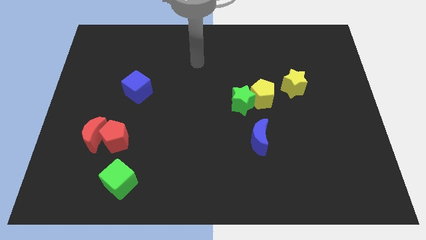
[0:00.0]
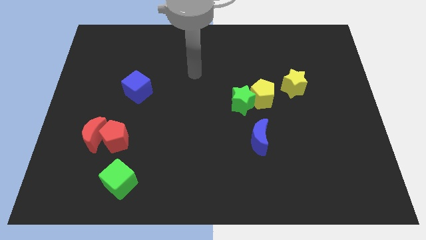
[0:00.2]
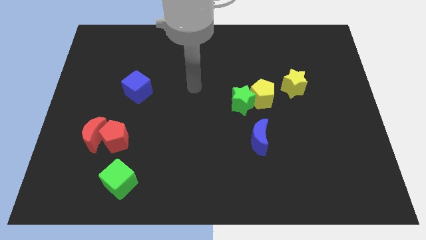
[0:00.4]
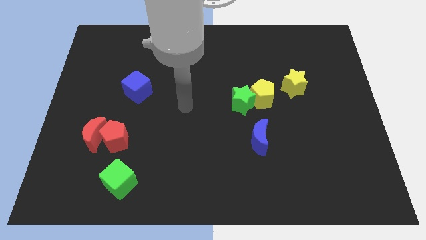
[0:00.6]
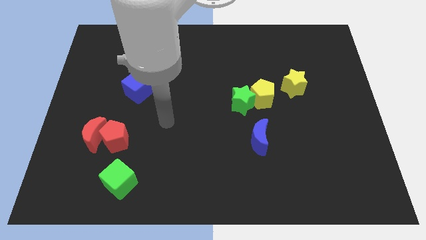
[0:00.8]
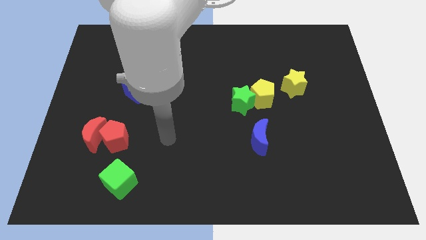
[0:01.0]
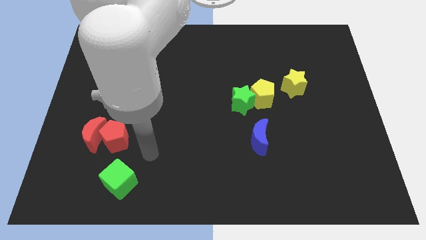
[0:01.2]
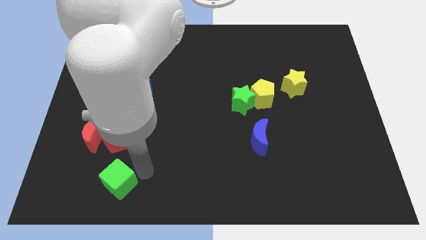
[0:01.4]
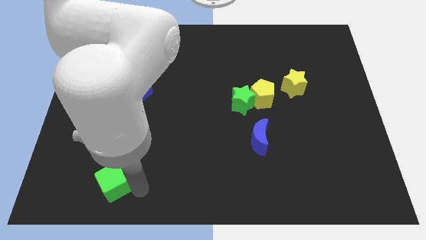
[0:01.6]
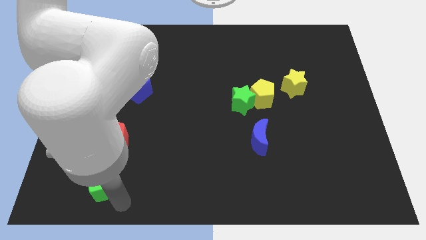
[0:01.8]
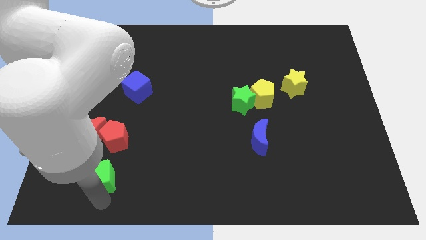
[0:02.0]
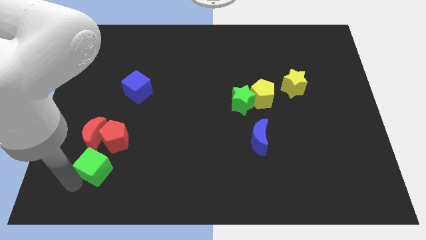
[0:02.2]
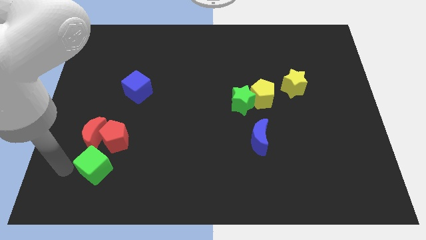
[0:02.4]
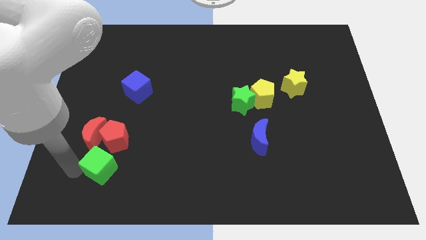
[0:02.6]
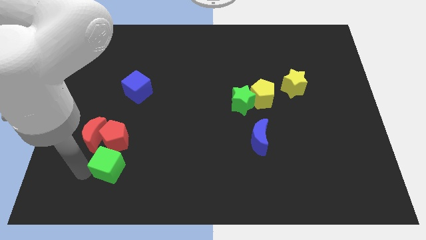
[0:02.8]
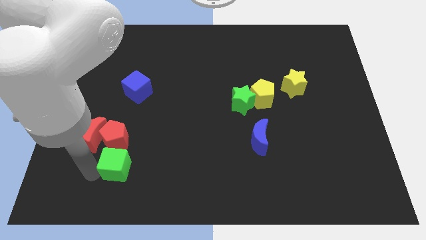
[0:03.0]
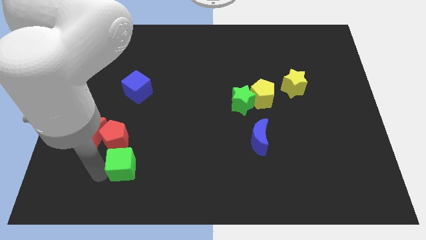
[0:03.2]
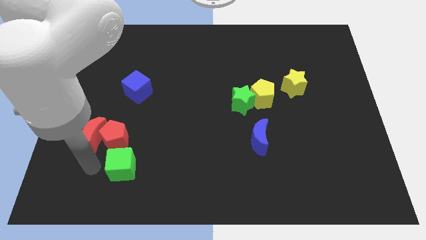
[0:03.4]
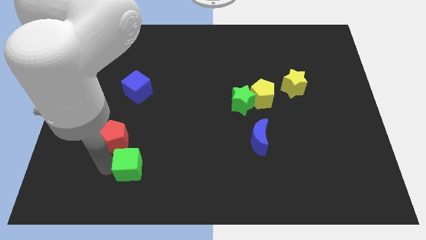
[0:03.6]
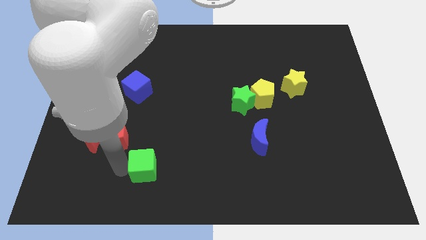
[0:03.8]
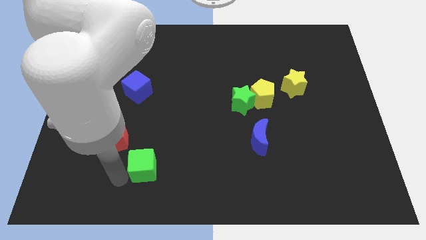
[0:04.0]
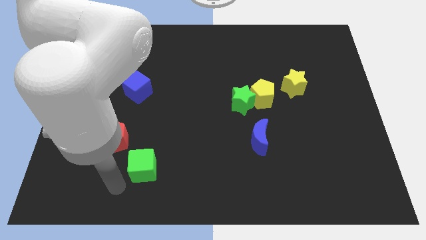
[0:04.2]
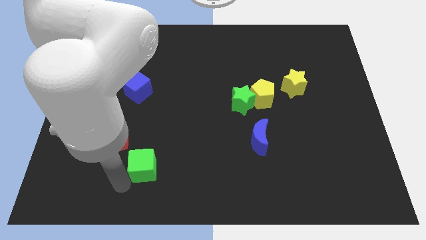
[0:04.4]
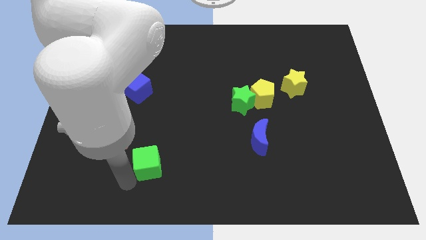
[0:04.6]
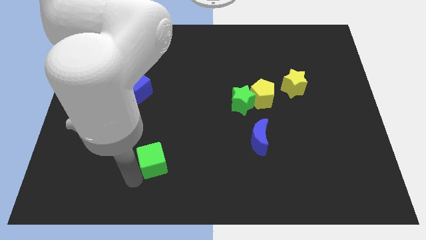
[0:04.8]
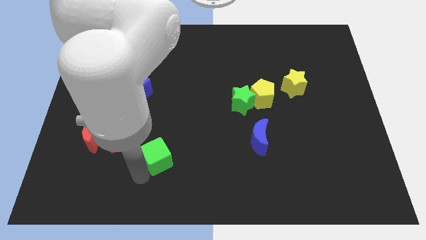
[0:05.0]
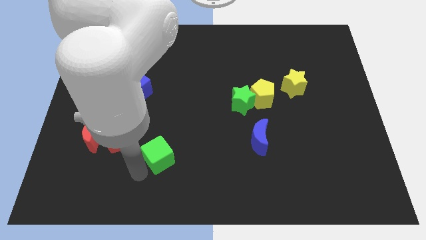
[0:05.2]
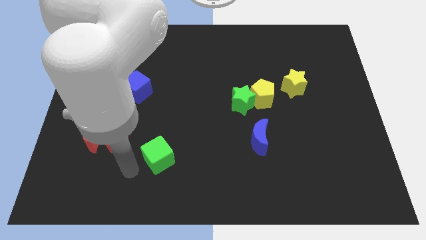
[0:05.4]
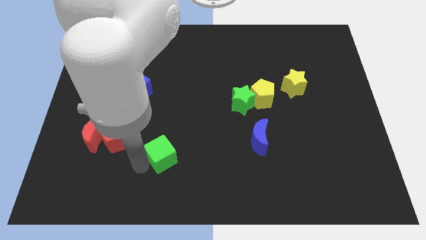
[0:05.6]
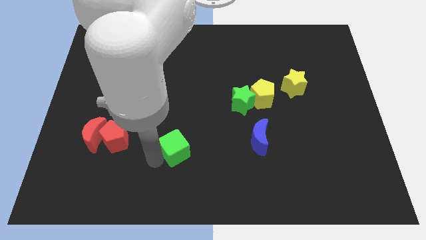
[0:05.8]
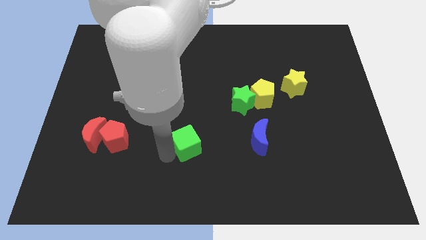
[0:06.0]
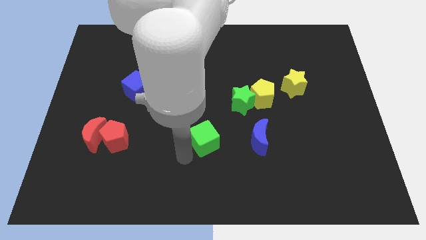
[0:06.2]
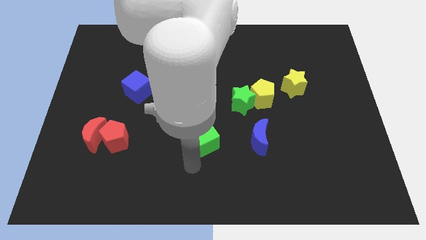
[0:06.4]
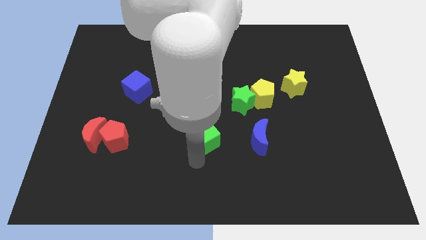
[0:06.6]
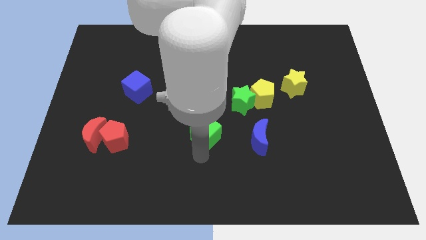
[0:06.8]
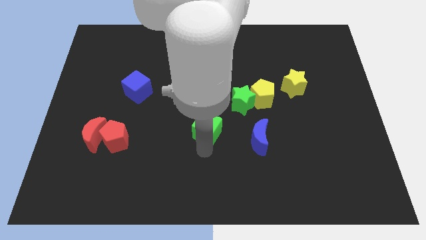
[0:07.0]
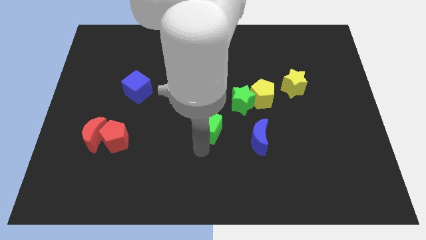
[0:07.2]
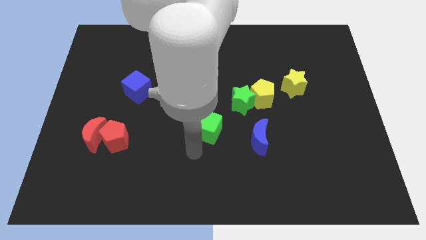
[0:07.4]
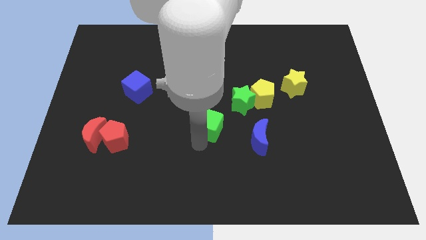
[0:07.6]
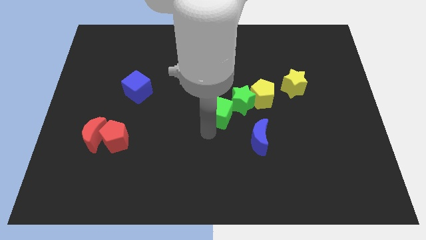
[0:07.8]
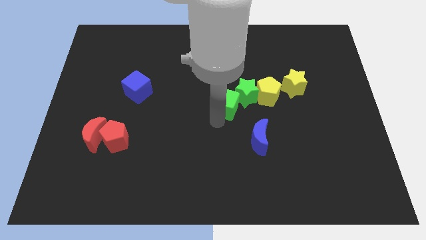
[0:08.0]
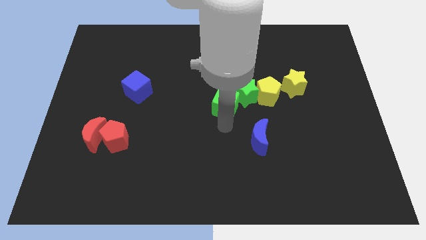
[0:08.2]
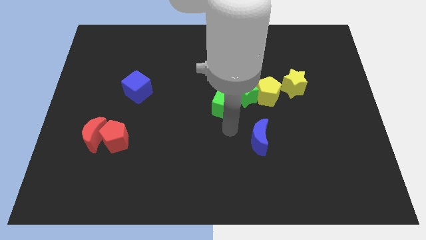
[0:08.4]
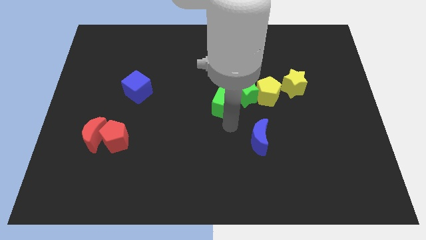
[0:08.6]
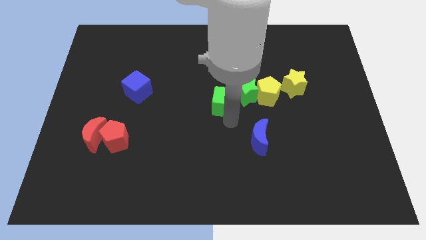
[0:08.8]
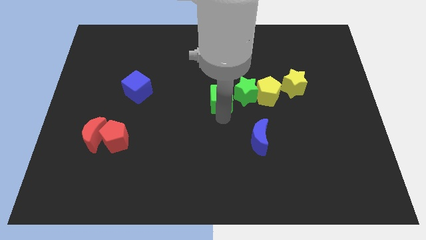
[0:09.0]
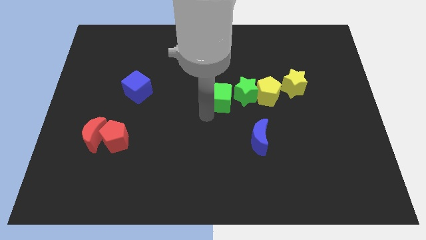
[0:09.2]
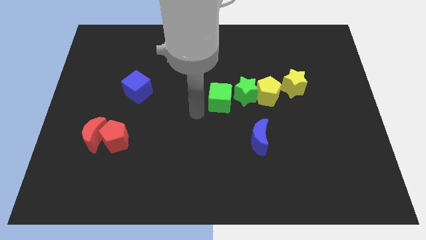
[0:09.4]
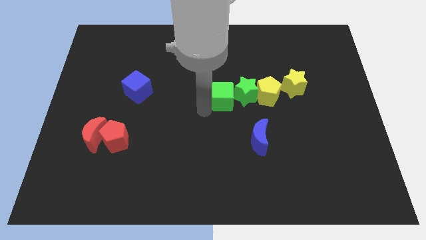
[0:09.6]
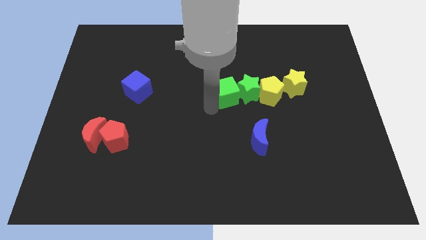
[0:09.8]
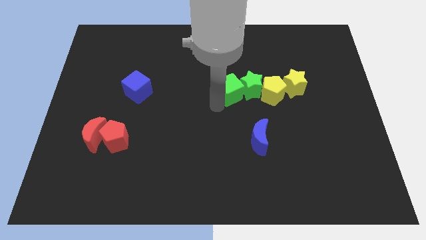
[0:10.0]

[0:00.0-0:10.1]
put the green cube to the left side of the yellow star

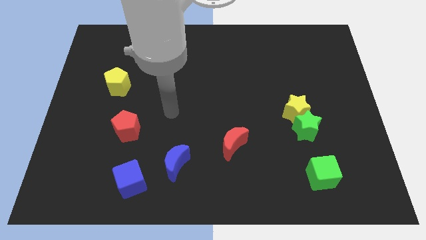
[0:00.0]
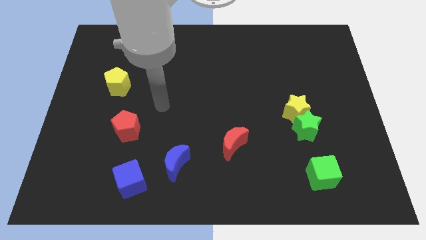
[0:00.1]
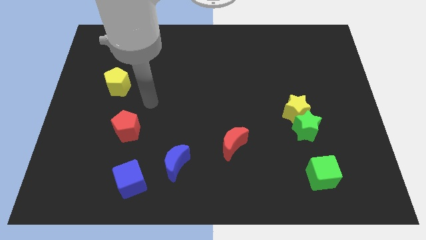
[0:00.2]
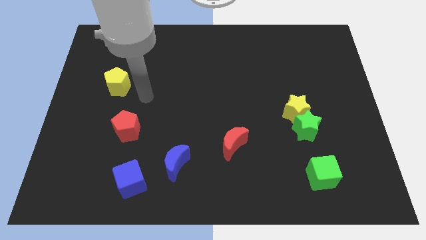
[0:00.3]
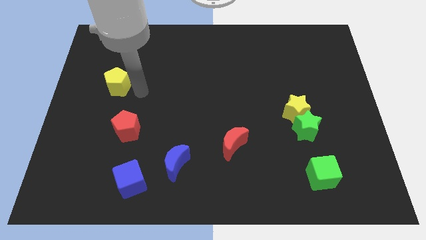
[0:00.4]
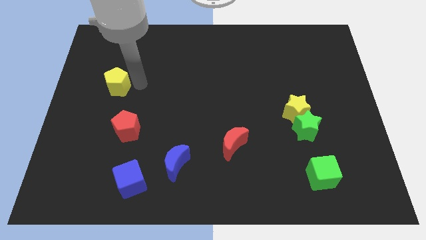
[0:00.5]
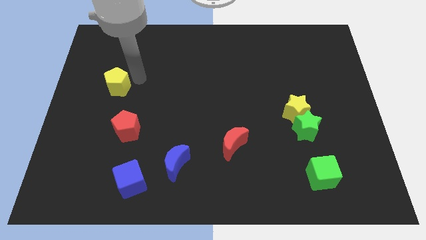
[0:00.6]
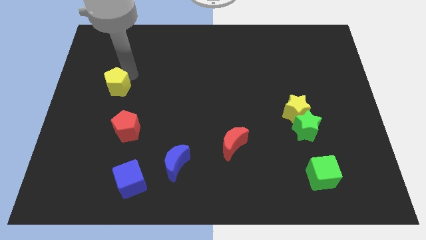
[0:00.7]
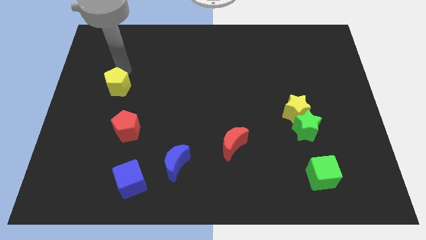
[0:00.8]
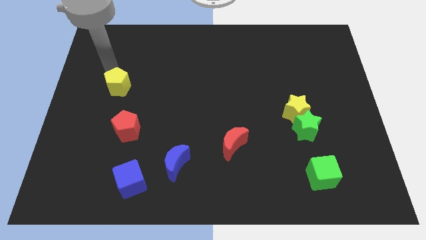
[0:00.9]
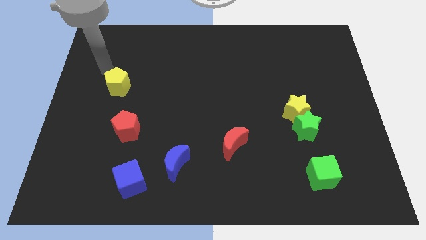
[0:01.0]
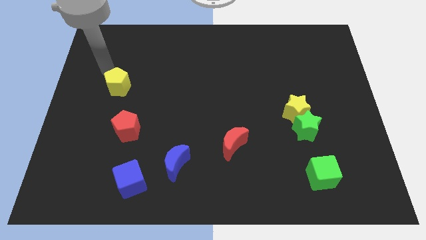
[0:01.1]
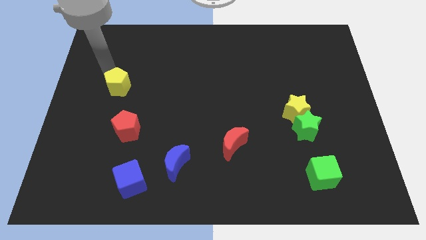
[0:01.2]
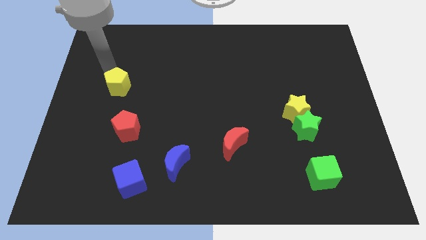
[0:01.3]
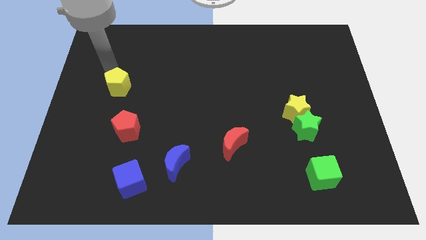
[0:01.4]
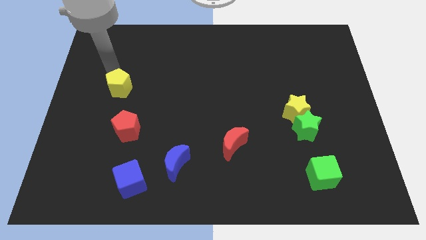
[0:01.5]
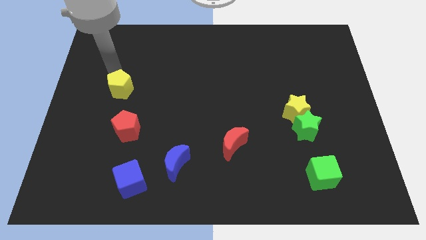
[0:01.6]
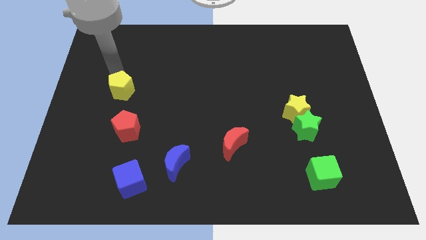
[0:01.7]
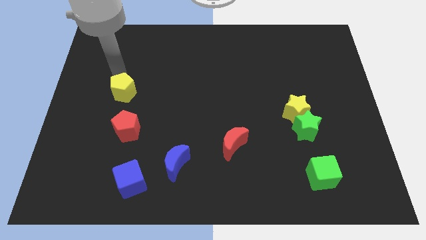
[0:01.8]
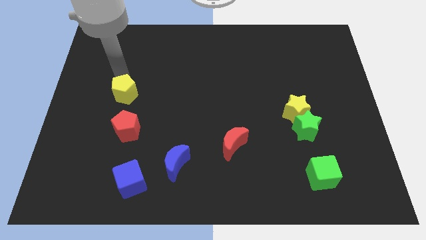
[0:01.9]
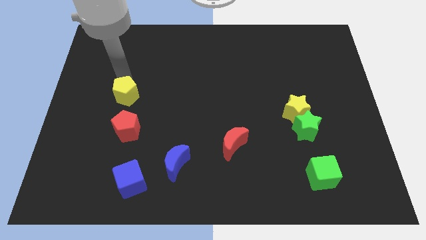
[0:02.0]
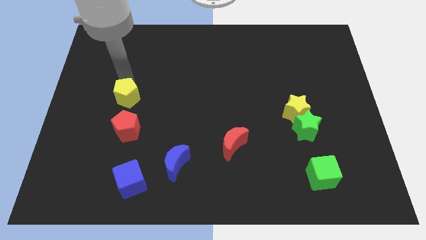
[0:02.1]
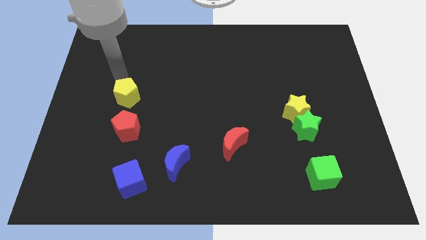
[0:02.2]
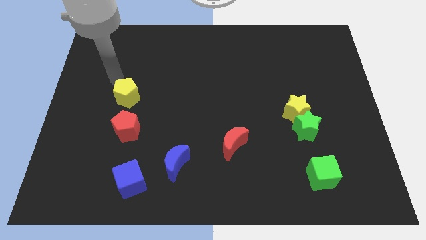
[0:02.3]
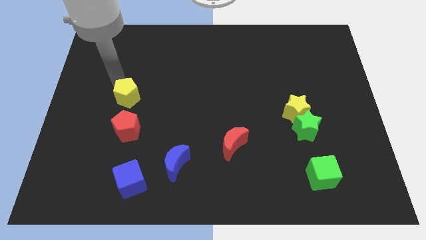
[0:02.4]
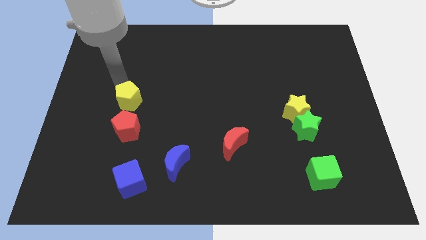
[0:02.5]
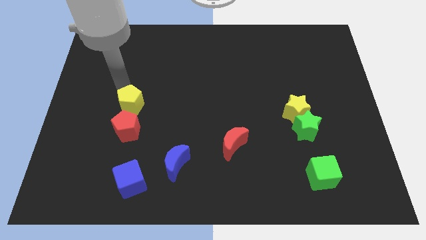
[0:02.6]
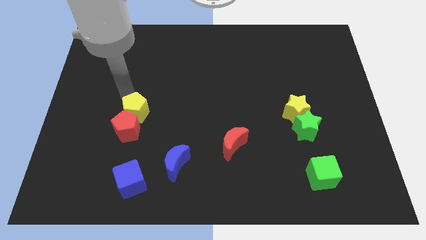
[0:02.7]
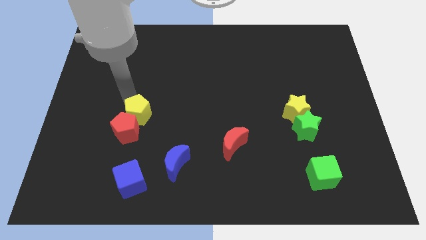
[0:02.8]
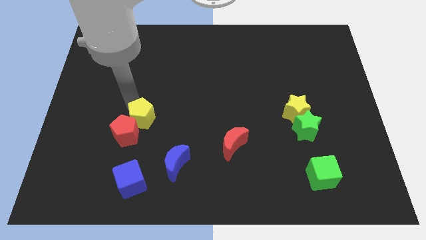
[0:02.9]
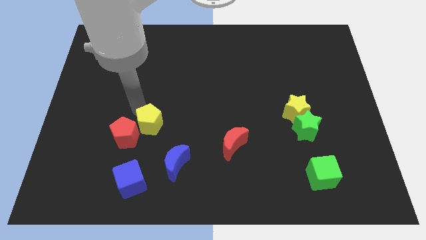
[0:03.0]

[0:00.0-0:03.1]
put the yellow pentagon diagonally up and to the left of the blue moon
